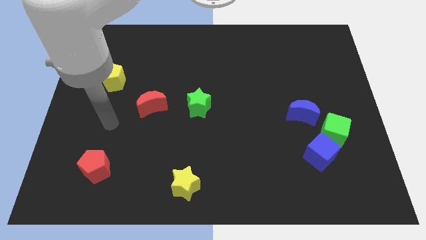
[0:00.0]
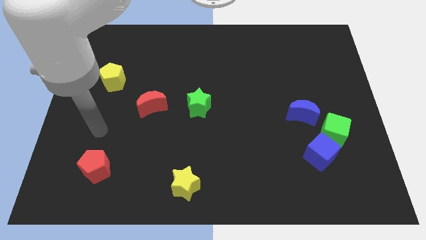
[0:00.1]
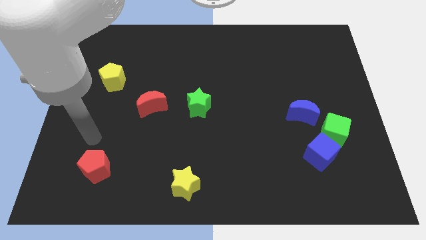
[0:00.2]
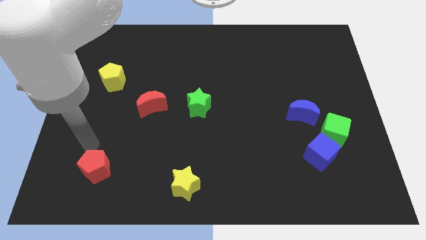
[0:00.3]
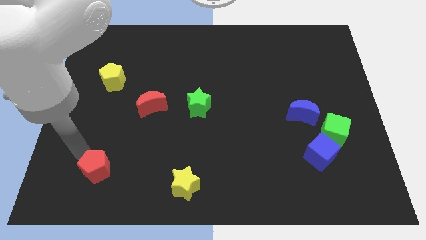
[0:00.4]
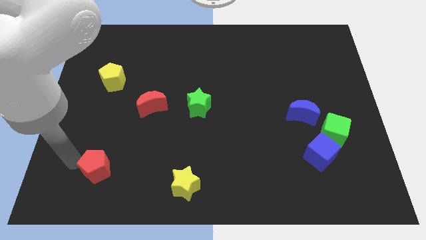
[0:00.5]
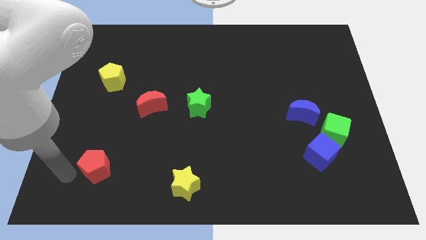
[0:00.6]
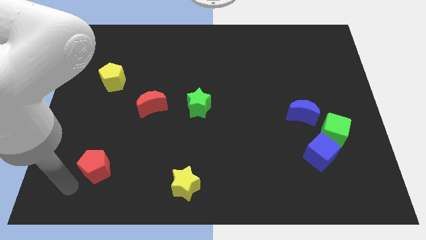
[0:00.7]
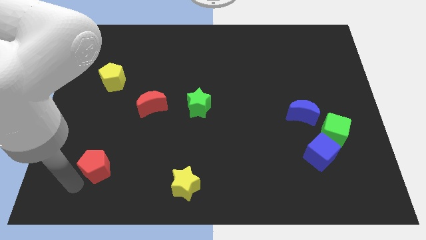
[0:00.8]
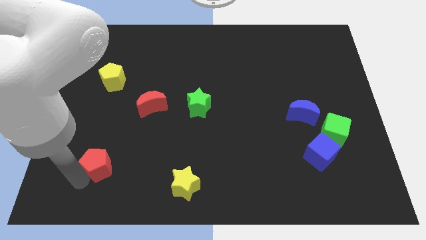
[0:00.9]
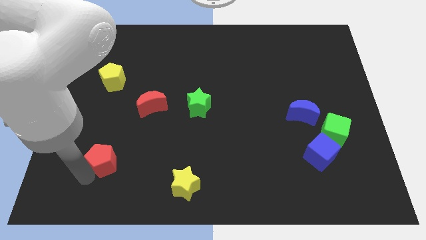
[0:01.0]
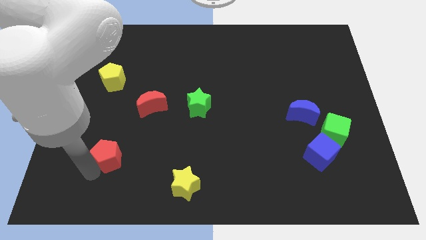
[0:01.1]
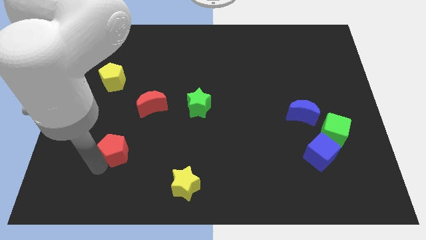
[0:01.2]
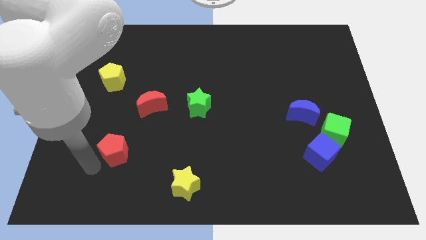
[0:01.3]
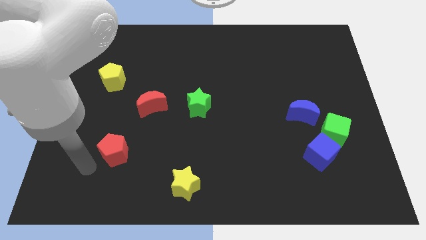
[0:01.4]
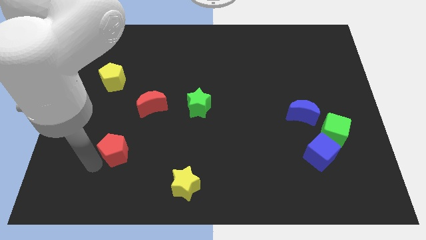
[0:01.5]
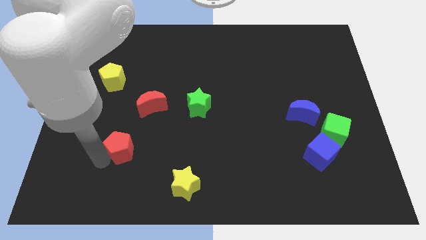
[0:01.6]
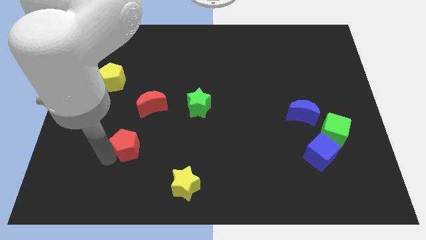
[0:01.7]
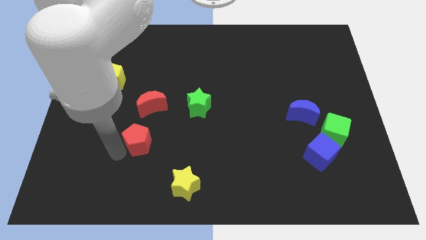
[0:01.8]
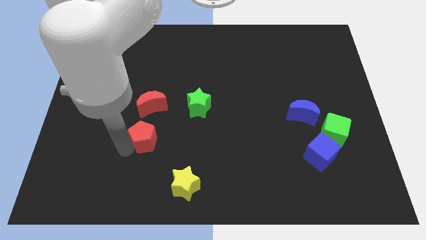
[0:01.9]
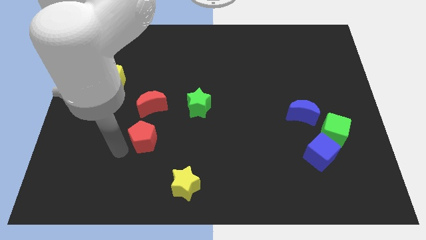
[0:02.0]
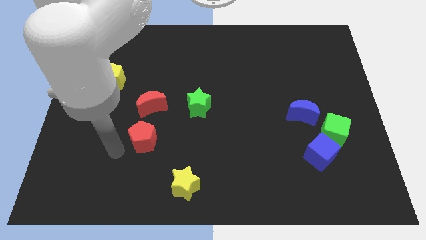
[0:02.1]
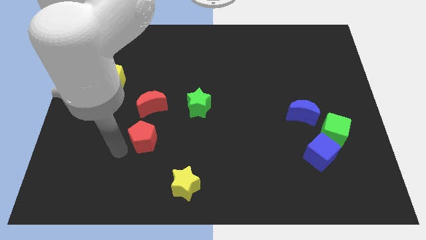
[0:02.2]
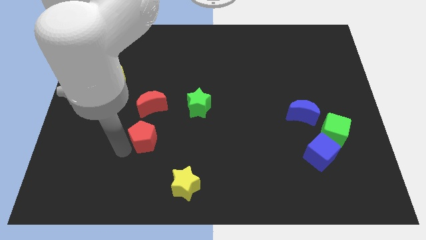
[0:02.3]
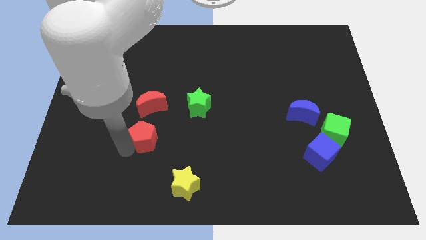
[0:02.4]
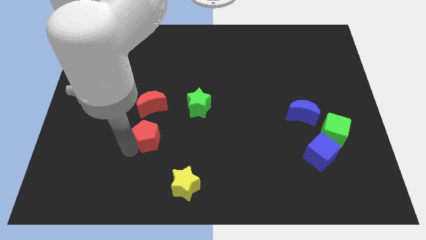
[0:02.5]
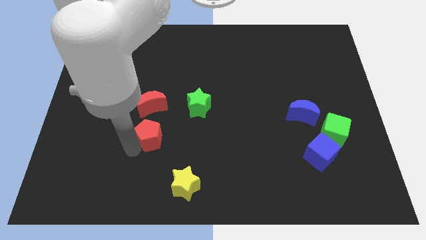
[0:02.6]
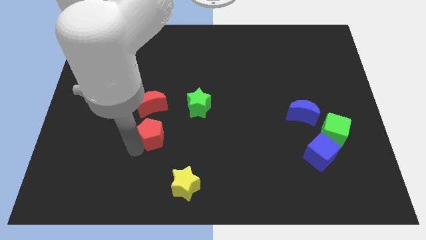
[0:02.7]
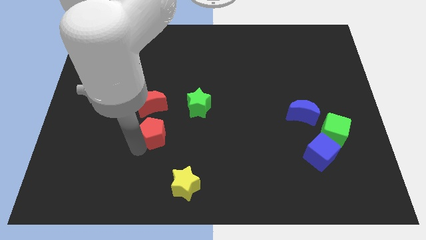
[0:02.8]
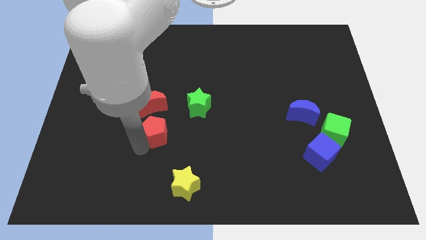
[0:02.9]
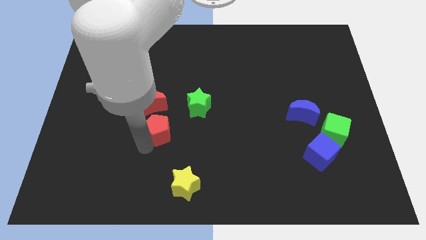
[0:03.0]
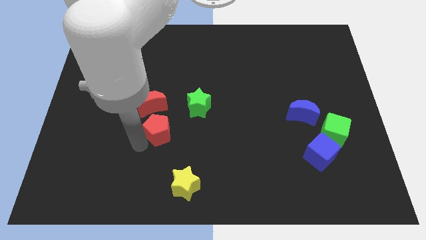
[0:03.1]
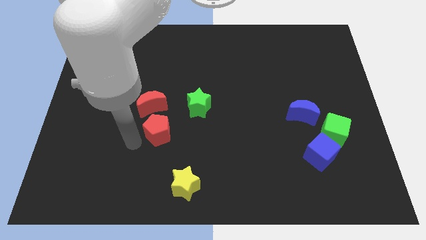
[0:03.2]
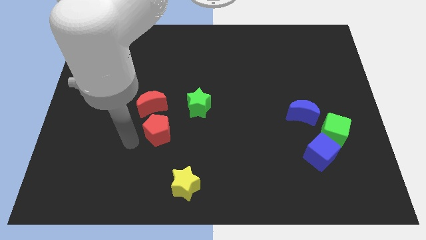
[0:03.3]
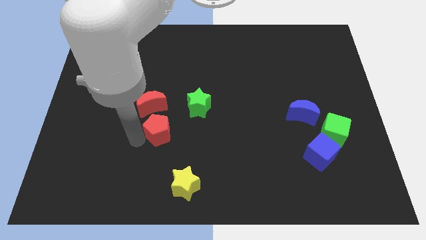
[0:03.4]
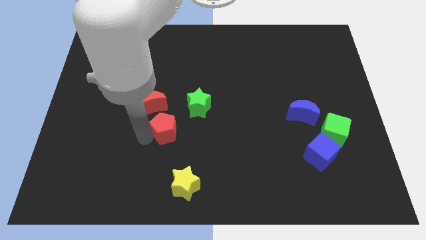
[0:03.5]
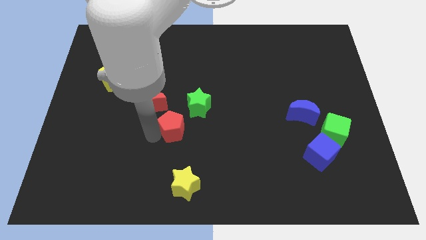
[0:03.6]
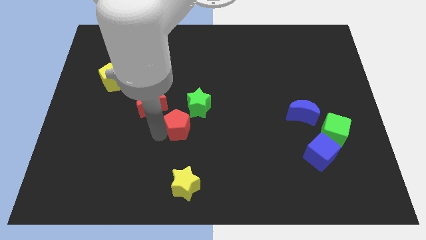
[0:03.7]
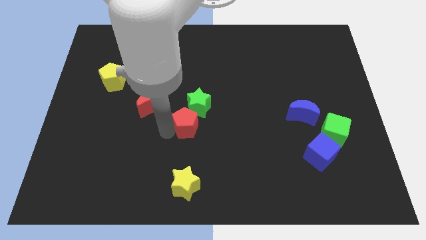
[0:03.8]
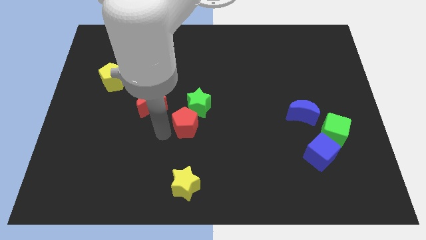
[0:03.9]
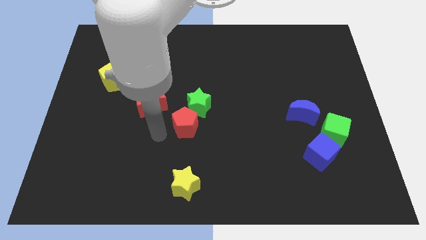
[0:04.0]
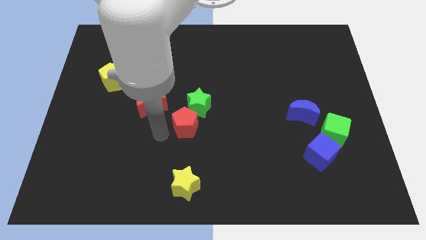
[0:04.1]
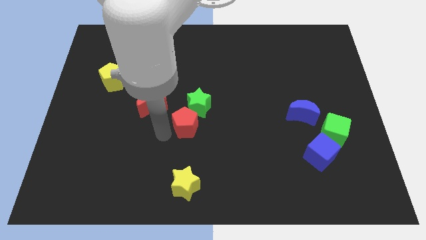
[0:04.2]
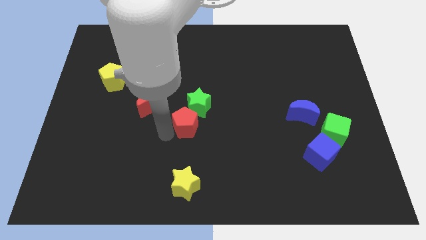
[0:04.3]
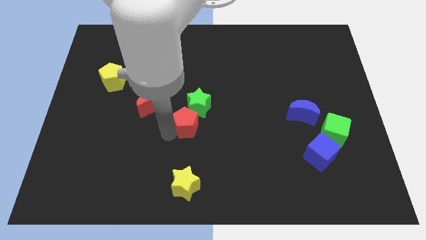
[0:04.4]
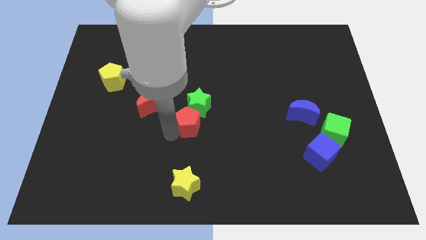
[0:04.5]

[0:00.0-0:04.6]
slide the red pentagon upwards and right

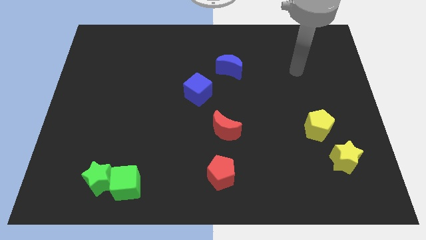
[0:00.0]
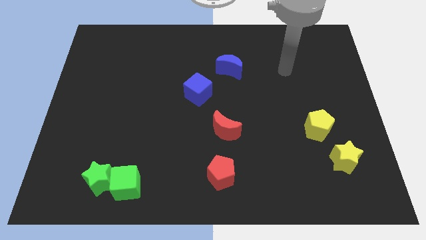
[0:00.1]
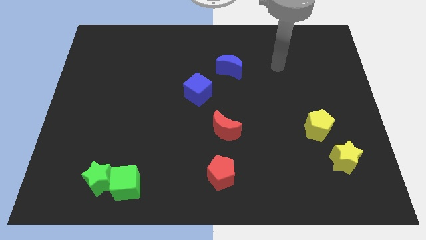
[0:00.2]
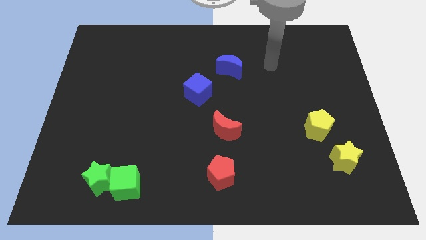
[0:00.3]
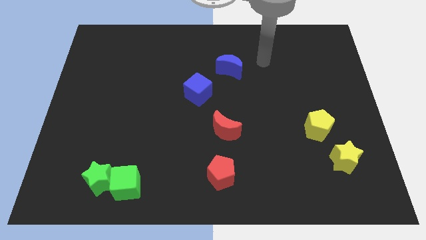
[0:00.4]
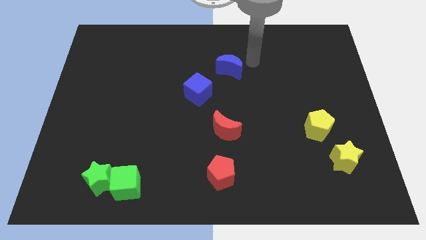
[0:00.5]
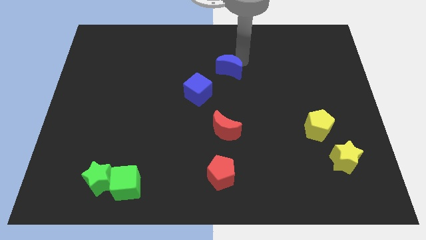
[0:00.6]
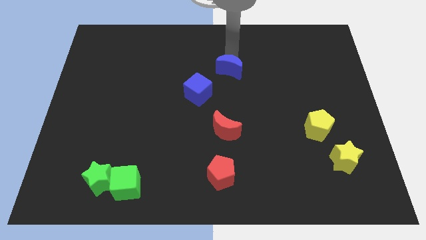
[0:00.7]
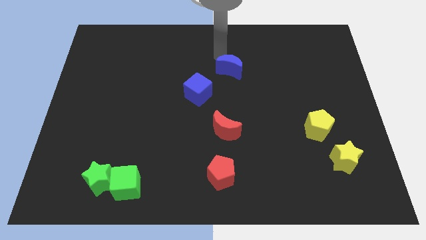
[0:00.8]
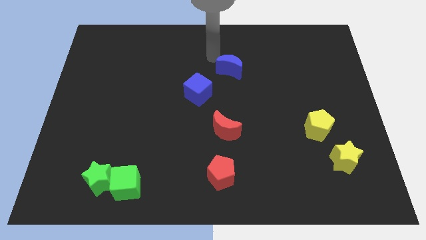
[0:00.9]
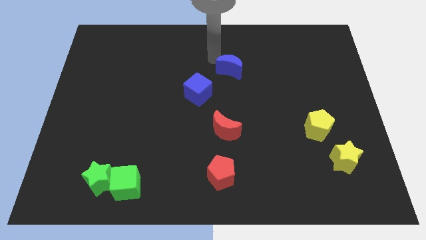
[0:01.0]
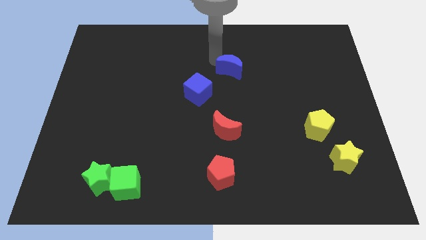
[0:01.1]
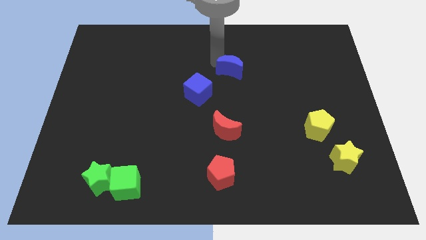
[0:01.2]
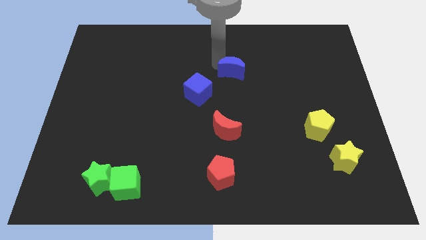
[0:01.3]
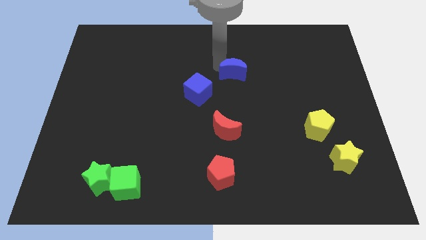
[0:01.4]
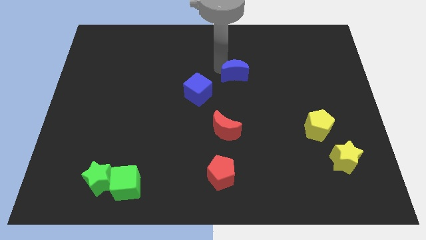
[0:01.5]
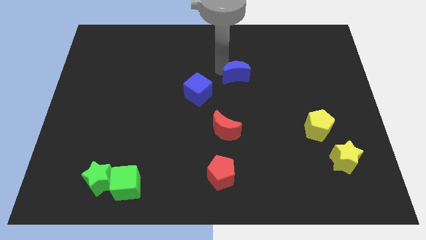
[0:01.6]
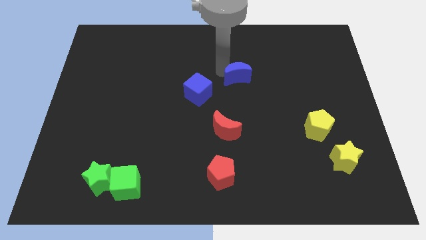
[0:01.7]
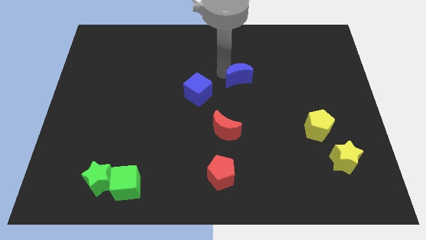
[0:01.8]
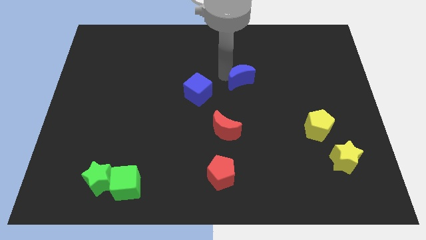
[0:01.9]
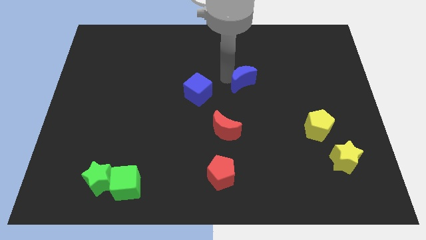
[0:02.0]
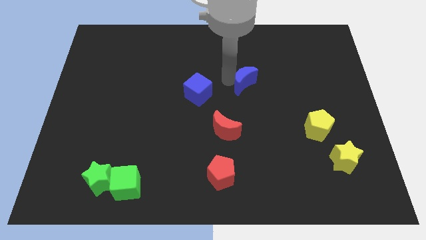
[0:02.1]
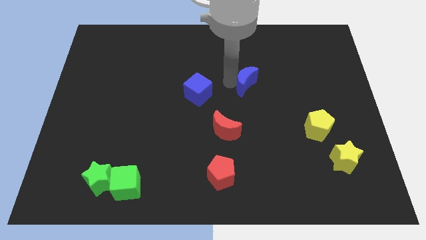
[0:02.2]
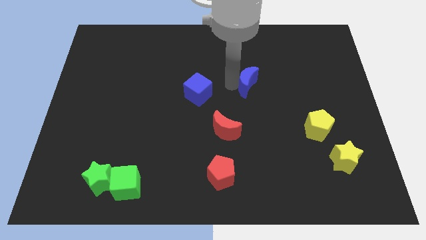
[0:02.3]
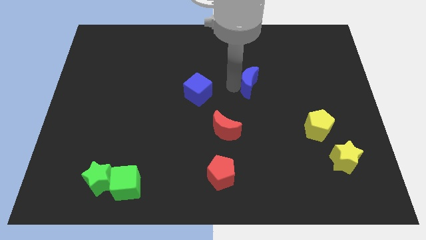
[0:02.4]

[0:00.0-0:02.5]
slightly slide the blue moon down and to the right diagonally

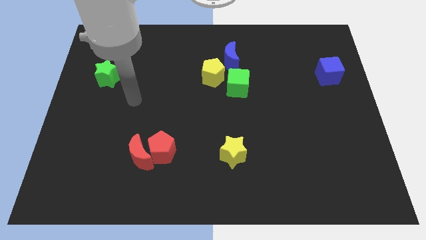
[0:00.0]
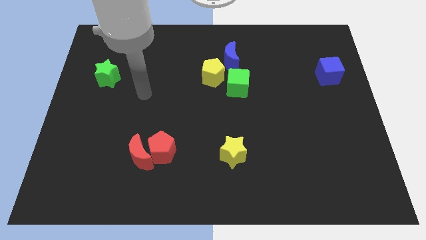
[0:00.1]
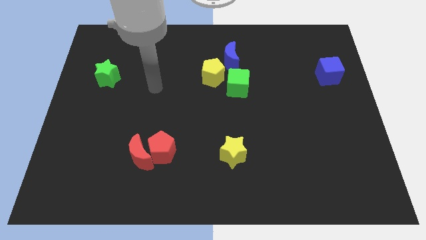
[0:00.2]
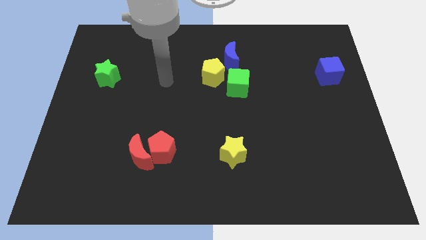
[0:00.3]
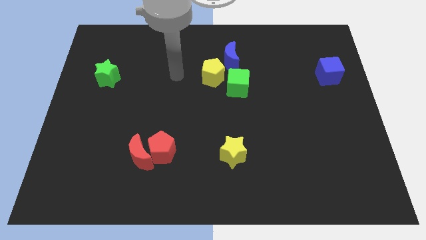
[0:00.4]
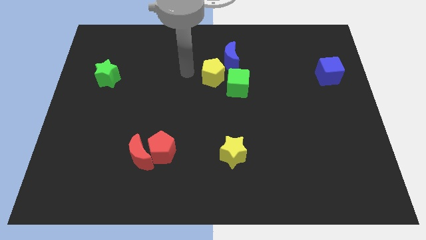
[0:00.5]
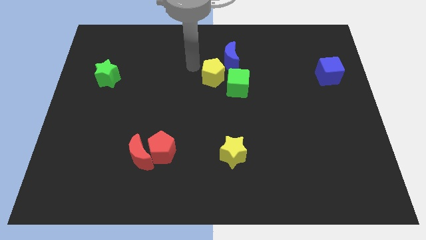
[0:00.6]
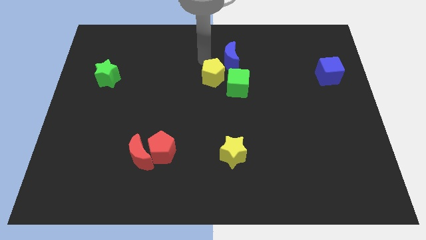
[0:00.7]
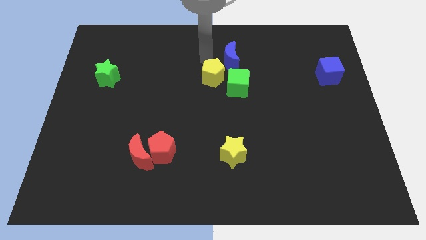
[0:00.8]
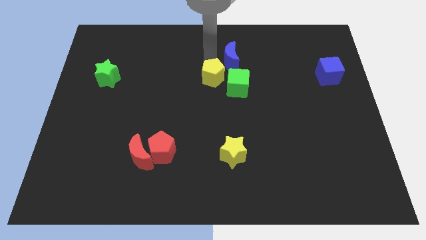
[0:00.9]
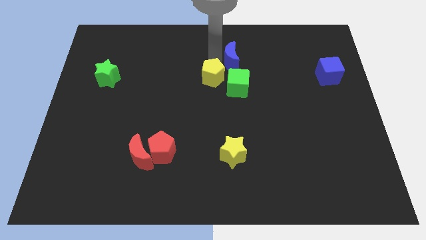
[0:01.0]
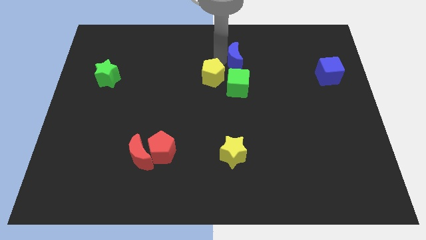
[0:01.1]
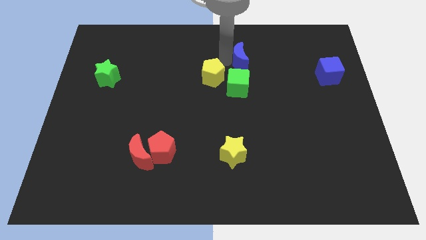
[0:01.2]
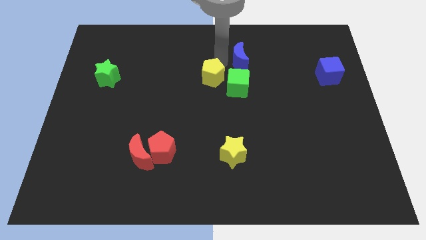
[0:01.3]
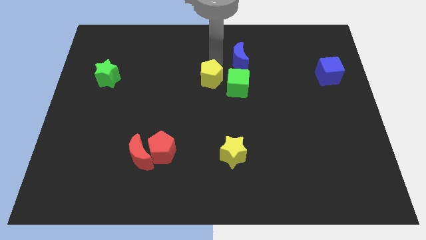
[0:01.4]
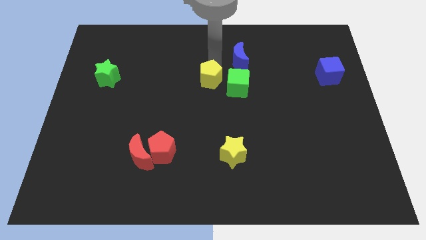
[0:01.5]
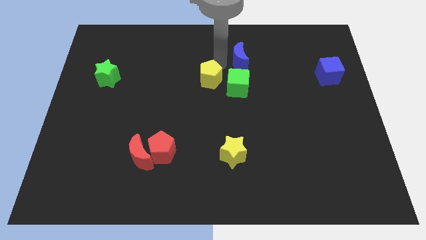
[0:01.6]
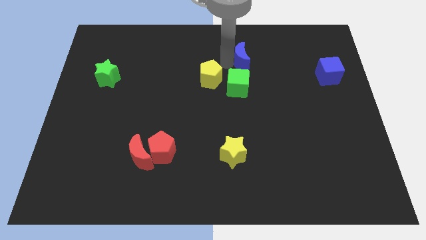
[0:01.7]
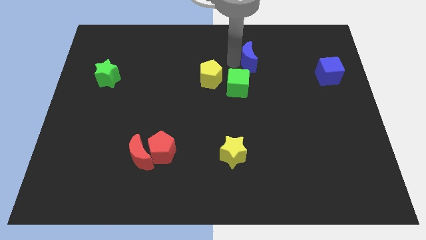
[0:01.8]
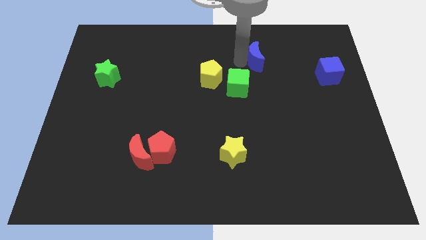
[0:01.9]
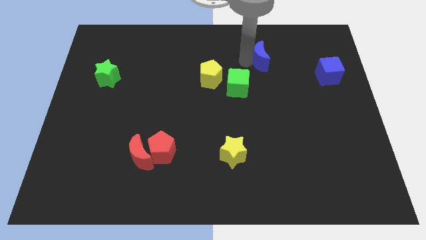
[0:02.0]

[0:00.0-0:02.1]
move the blue moon a little to the right
